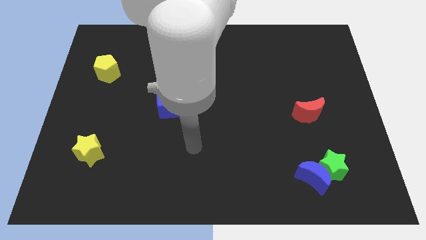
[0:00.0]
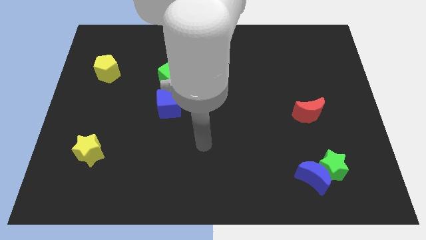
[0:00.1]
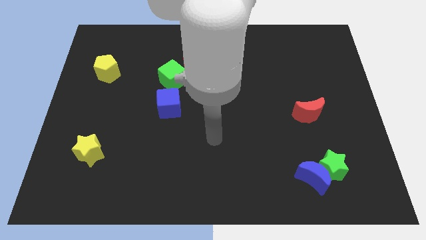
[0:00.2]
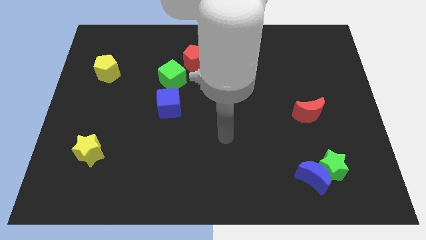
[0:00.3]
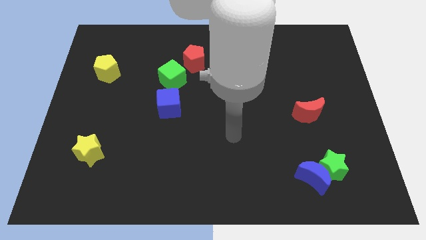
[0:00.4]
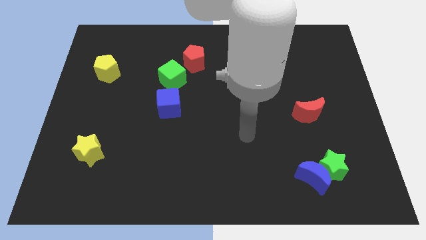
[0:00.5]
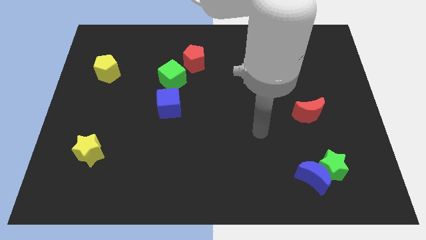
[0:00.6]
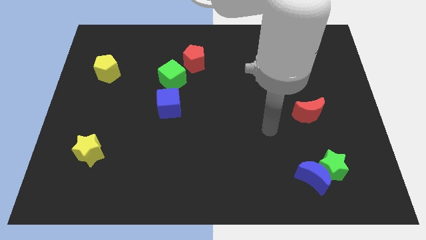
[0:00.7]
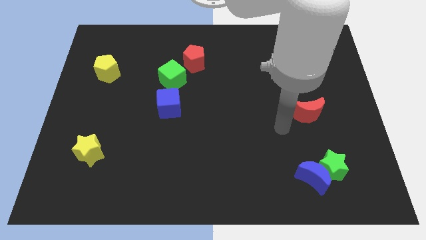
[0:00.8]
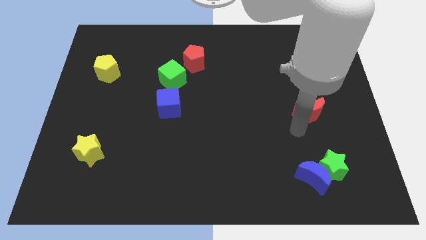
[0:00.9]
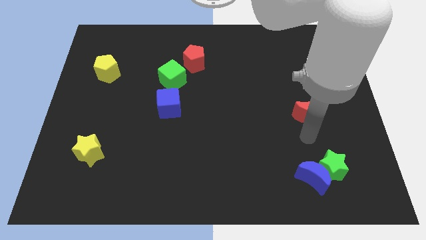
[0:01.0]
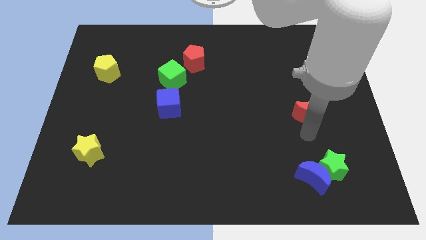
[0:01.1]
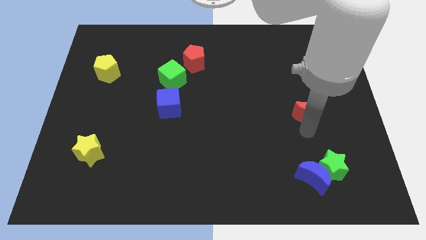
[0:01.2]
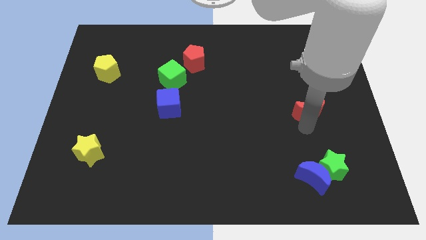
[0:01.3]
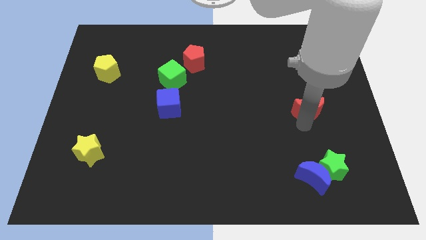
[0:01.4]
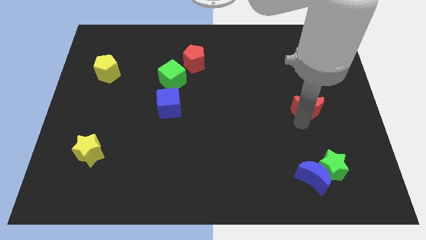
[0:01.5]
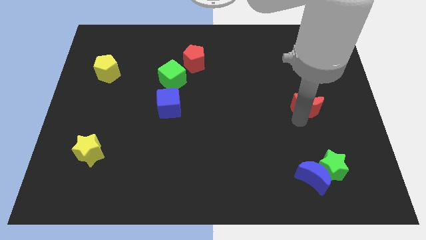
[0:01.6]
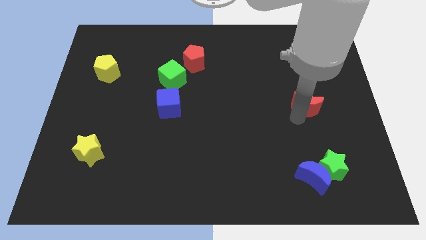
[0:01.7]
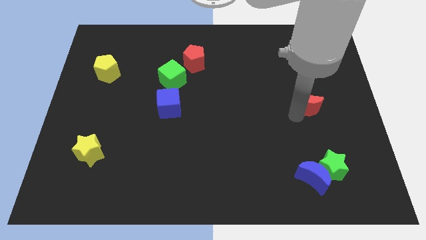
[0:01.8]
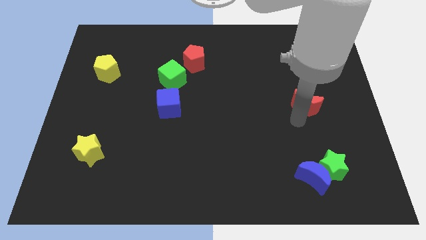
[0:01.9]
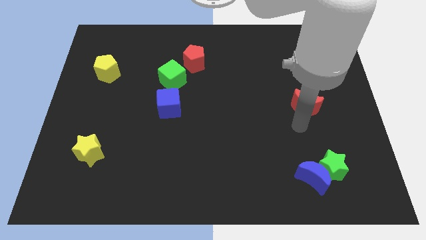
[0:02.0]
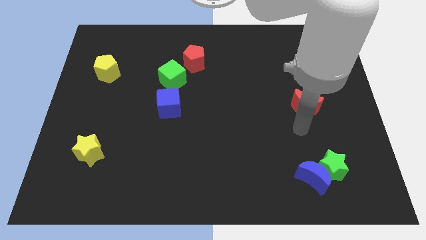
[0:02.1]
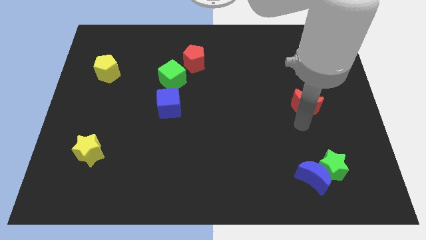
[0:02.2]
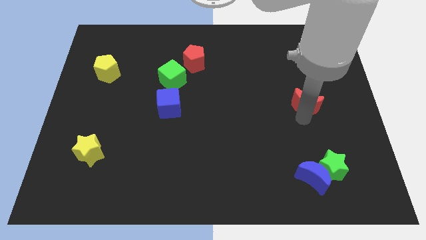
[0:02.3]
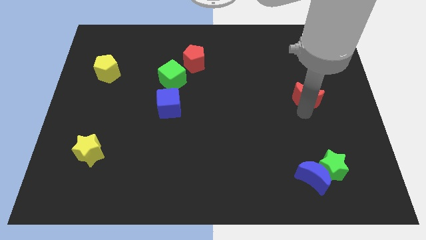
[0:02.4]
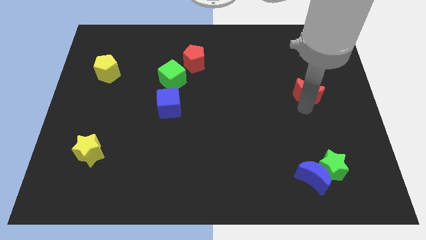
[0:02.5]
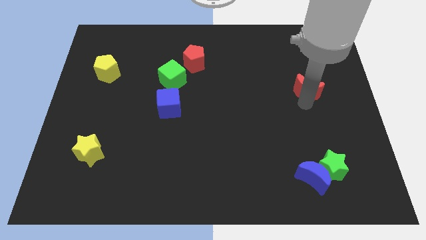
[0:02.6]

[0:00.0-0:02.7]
push the red moon slightly up

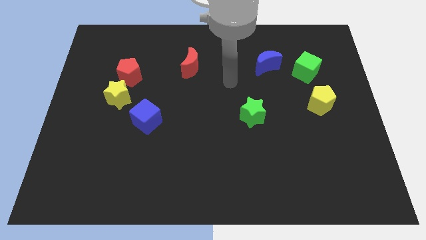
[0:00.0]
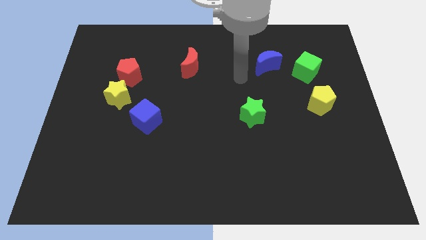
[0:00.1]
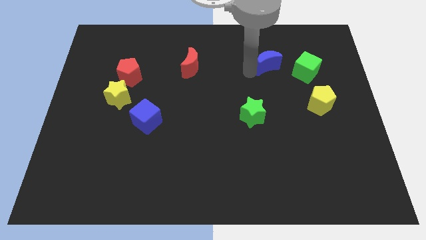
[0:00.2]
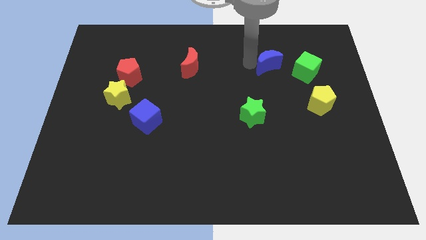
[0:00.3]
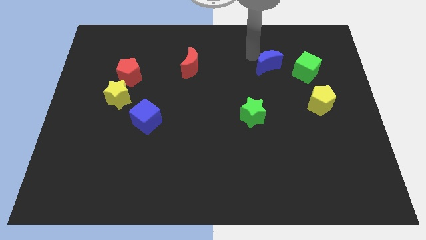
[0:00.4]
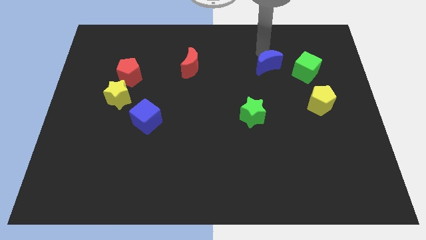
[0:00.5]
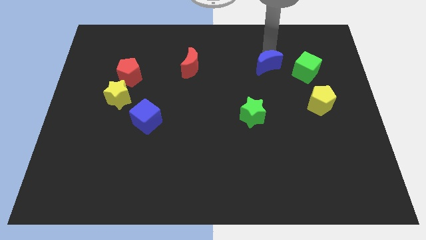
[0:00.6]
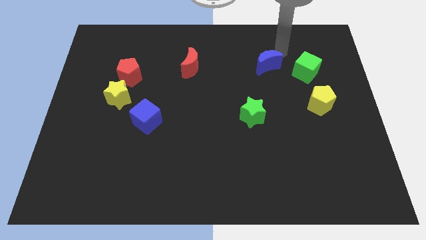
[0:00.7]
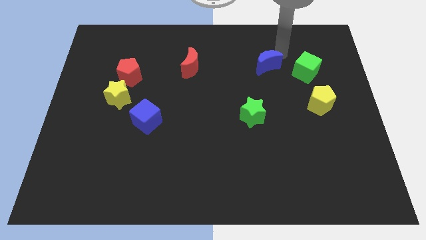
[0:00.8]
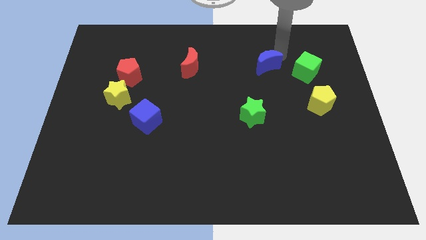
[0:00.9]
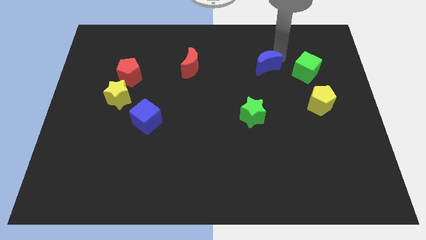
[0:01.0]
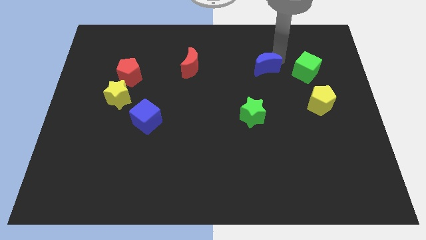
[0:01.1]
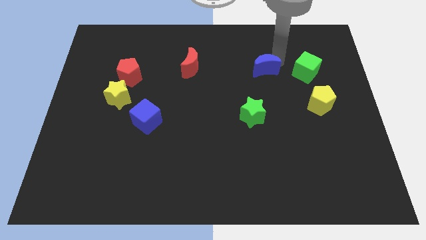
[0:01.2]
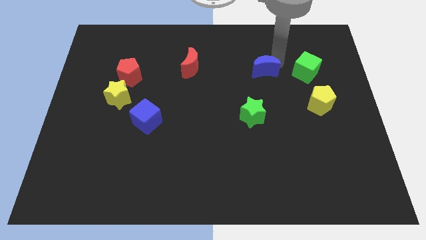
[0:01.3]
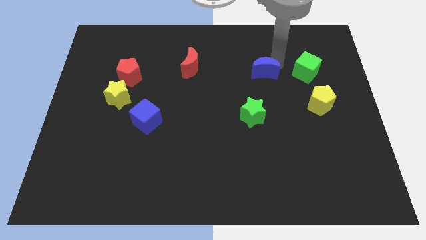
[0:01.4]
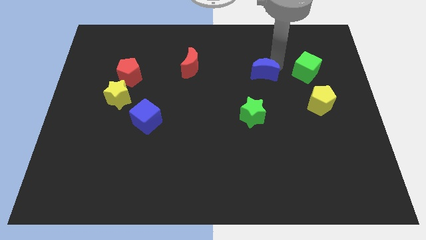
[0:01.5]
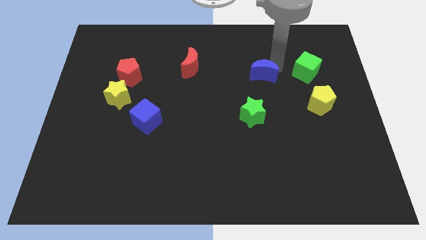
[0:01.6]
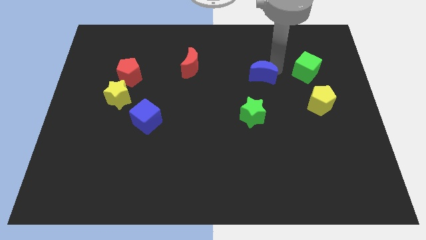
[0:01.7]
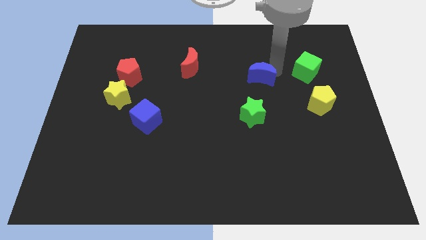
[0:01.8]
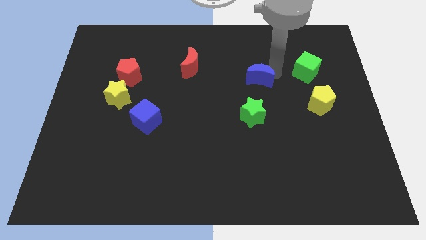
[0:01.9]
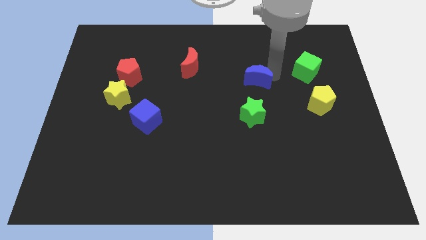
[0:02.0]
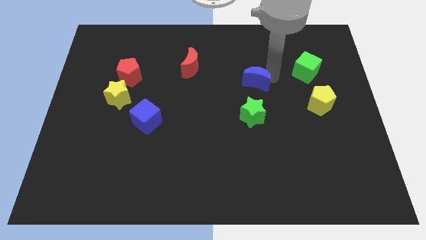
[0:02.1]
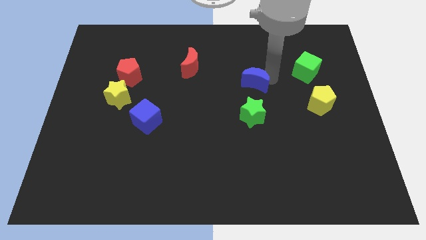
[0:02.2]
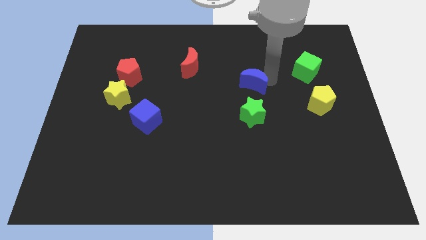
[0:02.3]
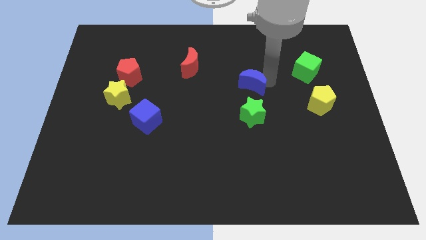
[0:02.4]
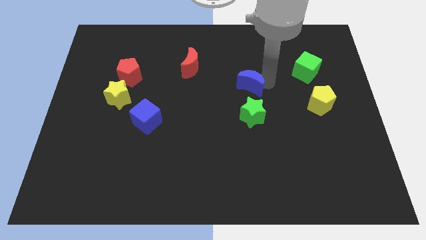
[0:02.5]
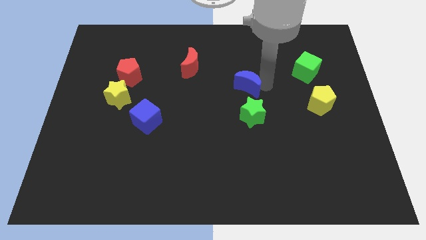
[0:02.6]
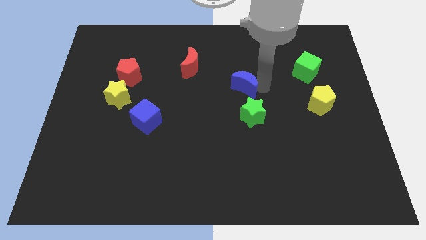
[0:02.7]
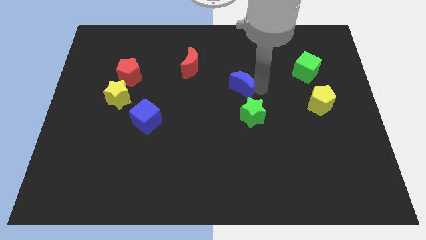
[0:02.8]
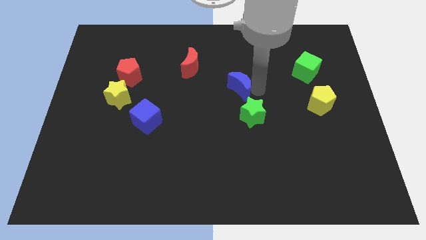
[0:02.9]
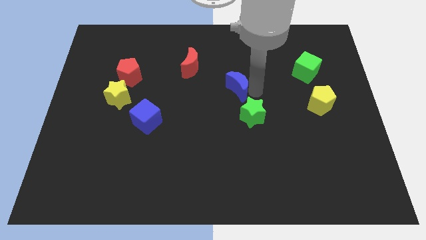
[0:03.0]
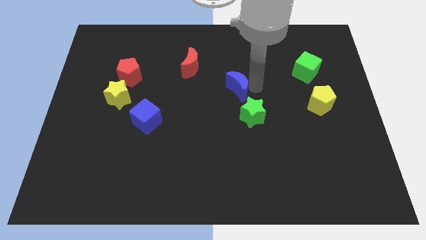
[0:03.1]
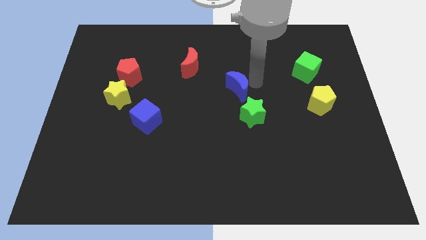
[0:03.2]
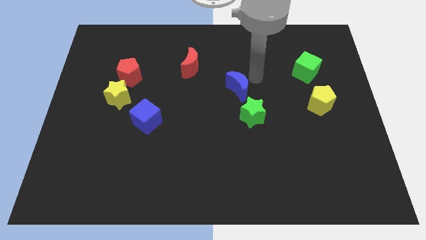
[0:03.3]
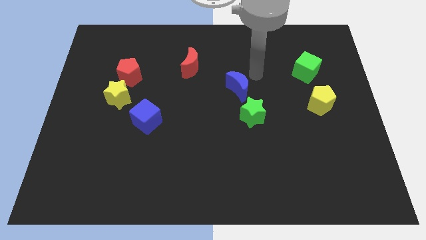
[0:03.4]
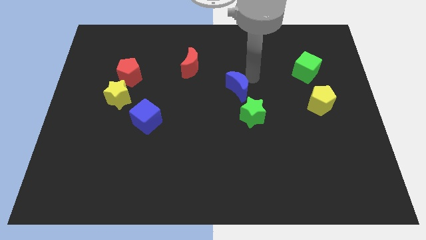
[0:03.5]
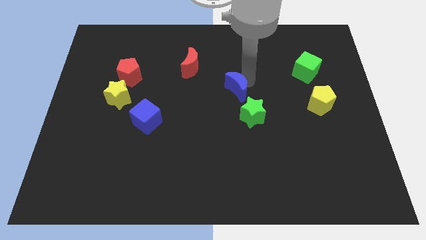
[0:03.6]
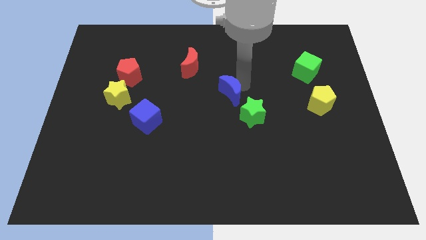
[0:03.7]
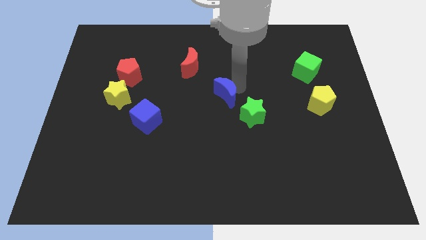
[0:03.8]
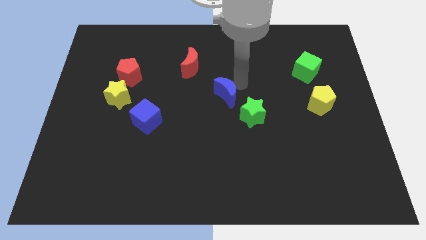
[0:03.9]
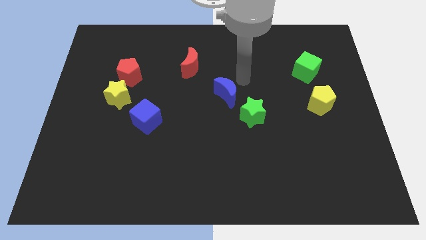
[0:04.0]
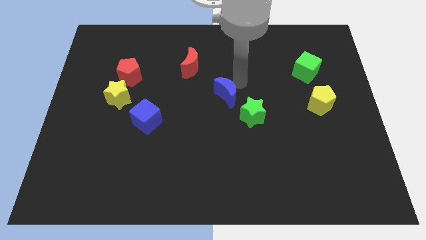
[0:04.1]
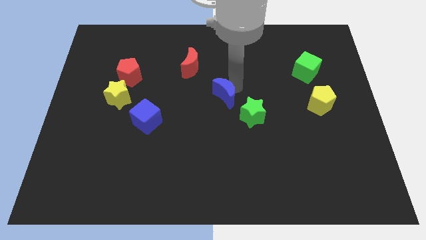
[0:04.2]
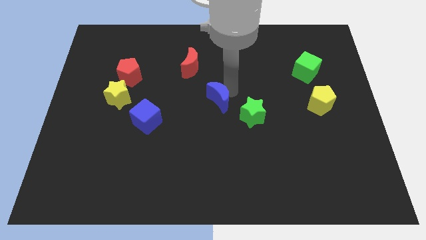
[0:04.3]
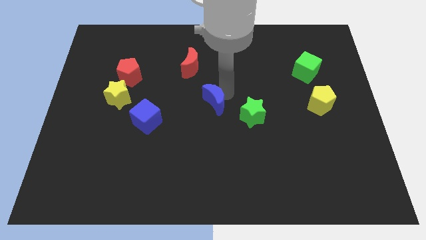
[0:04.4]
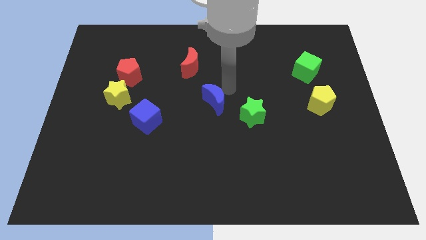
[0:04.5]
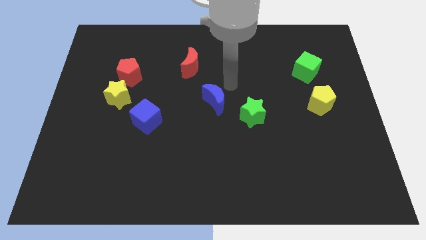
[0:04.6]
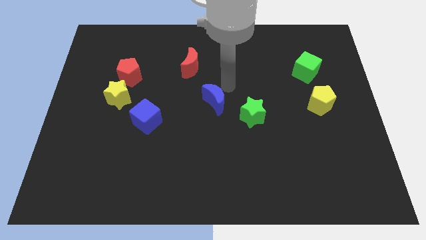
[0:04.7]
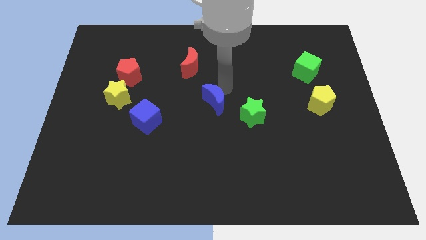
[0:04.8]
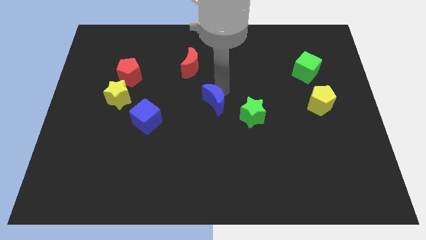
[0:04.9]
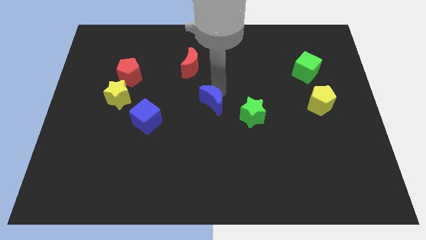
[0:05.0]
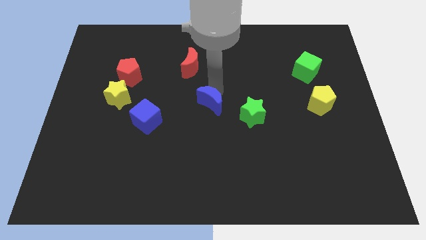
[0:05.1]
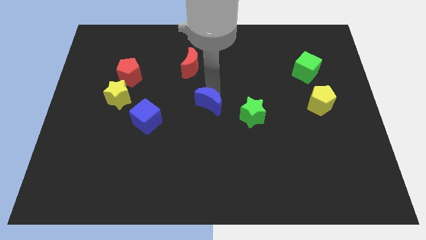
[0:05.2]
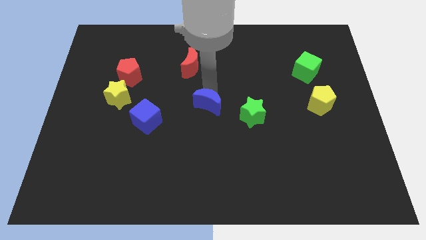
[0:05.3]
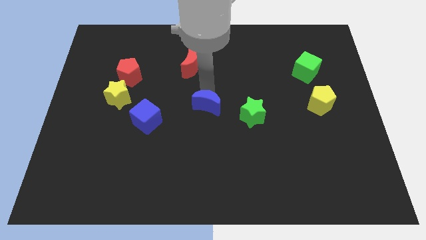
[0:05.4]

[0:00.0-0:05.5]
move the blue moon diagonally down and left

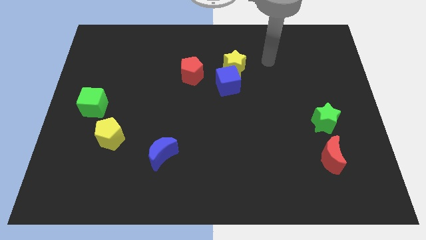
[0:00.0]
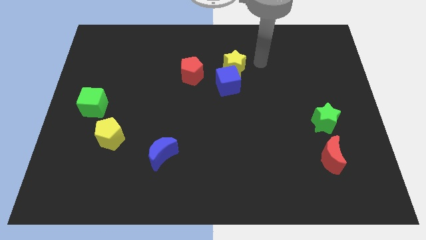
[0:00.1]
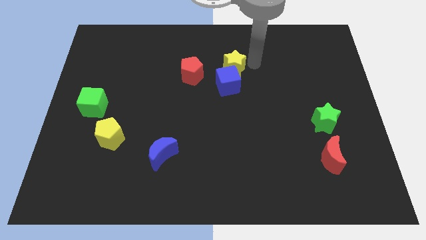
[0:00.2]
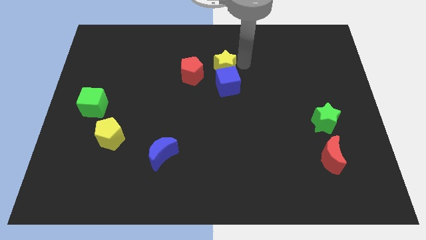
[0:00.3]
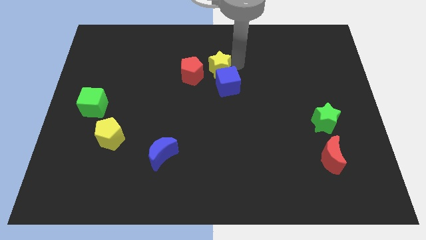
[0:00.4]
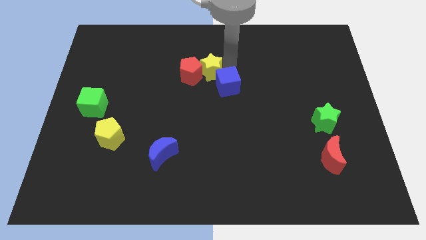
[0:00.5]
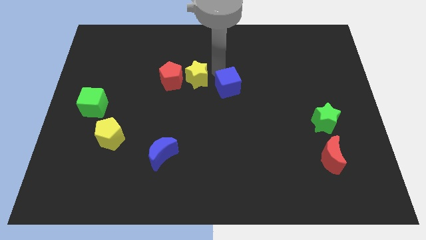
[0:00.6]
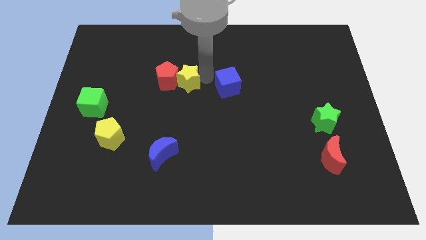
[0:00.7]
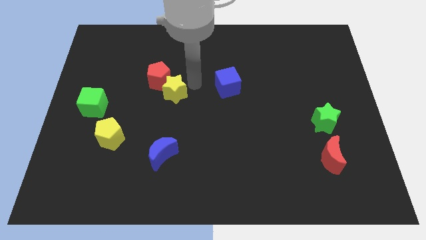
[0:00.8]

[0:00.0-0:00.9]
push the red pentagon a little to the left
